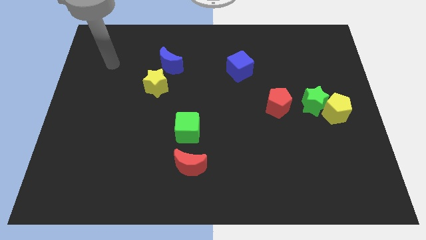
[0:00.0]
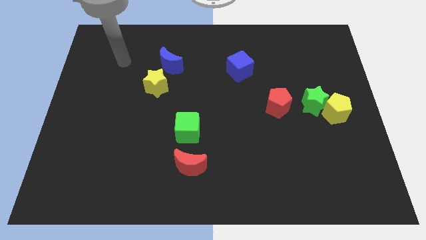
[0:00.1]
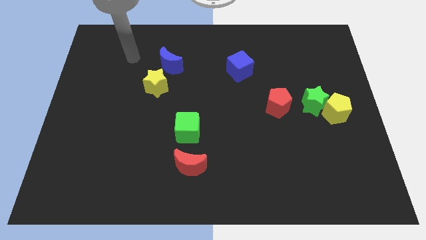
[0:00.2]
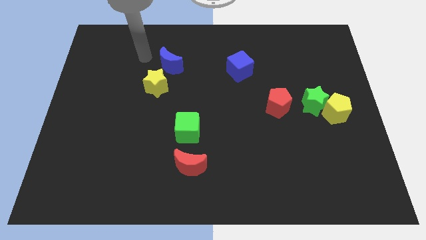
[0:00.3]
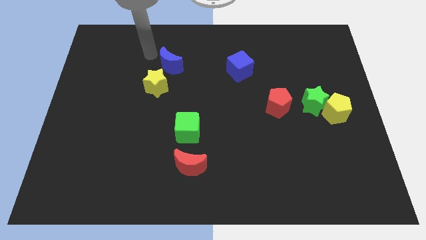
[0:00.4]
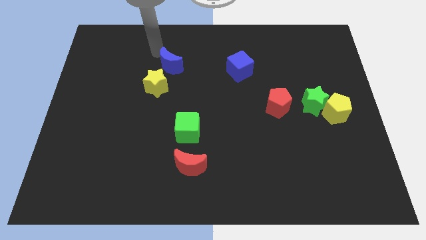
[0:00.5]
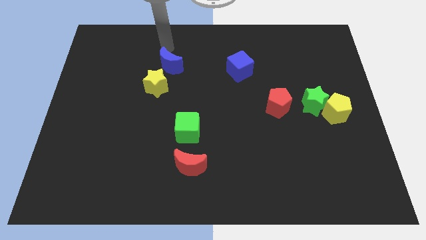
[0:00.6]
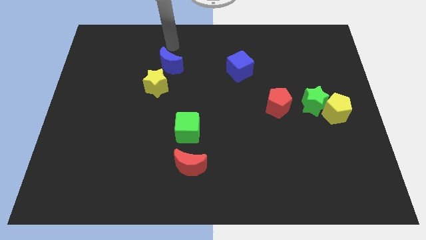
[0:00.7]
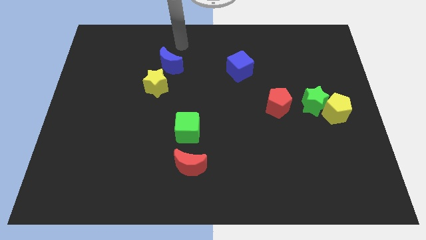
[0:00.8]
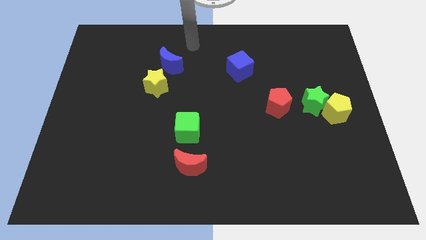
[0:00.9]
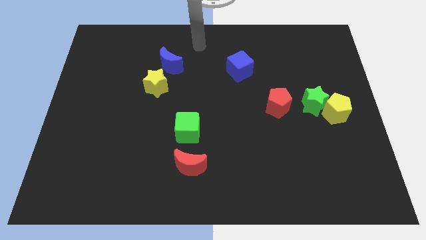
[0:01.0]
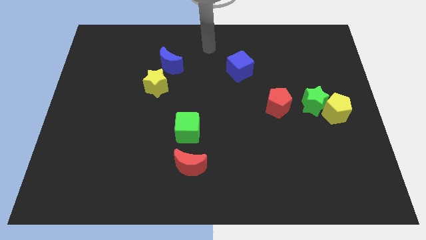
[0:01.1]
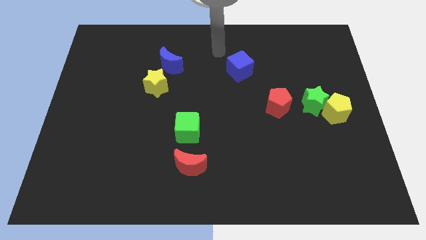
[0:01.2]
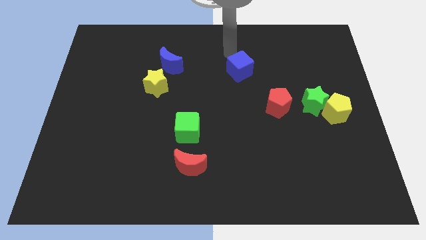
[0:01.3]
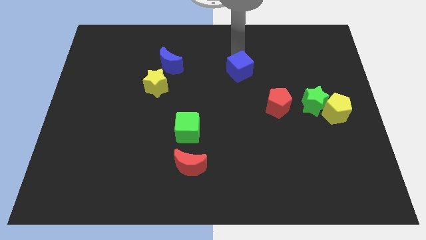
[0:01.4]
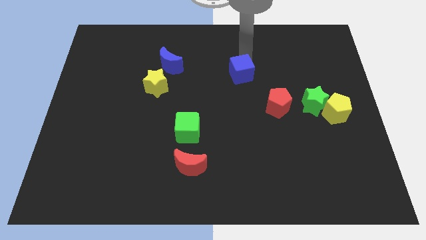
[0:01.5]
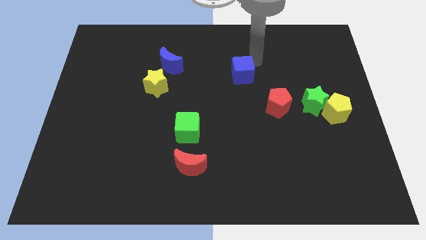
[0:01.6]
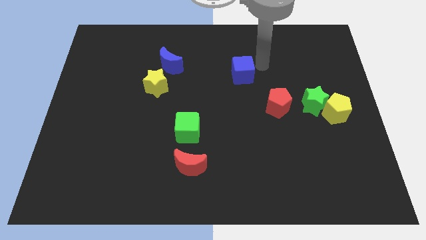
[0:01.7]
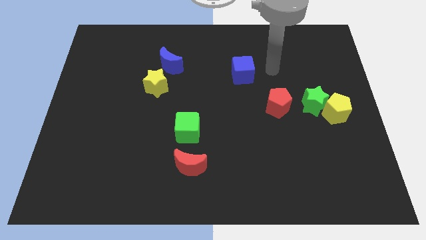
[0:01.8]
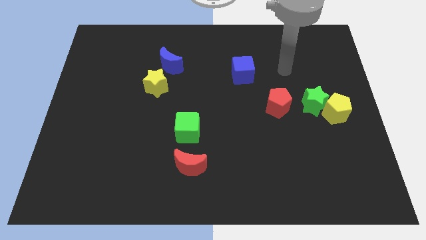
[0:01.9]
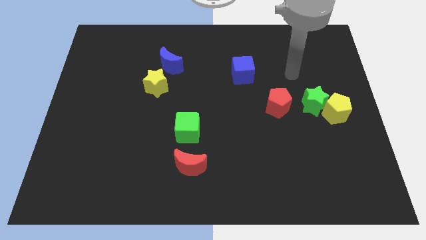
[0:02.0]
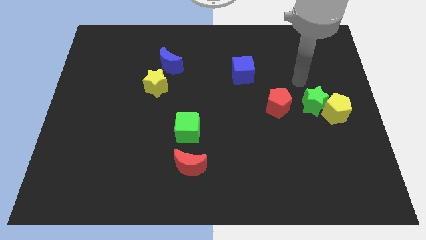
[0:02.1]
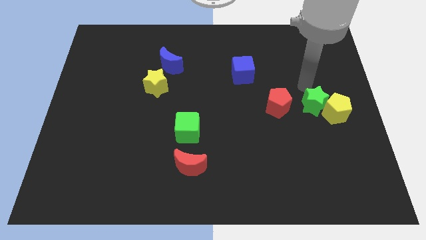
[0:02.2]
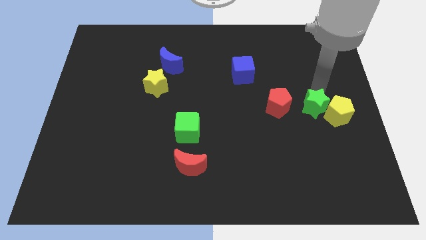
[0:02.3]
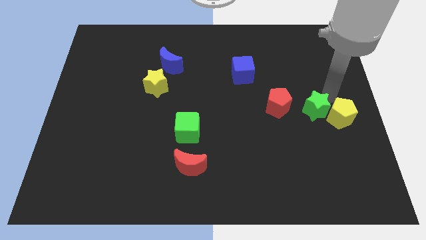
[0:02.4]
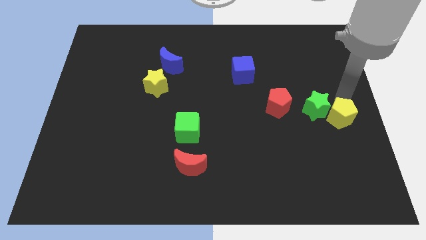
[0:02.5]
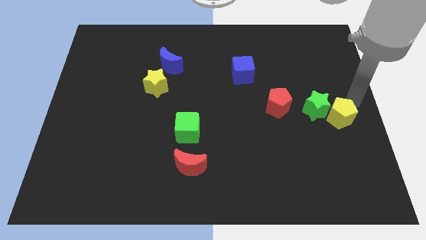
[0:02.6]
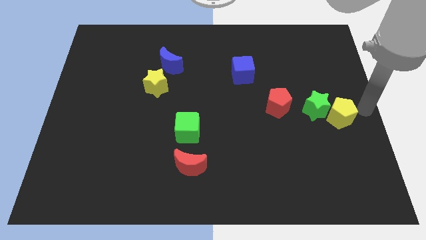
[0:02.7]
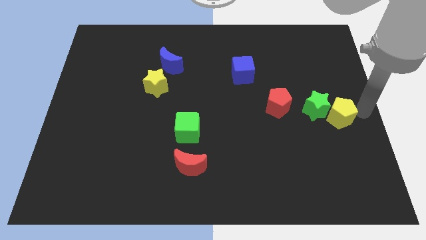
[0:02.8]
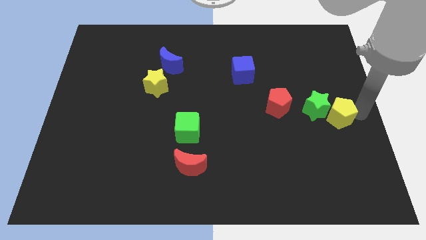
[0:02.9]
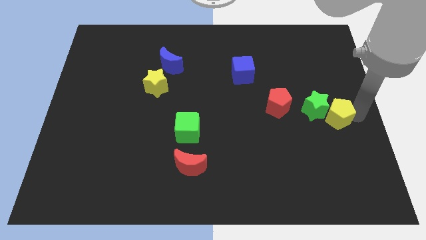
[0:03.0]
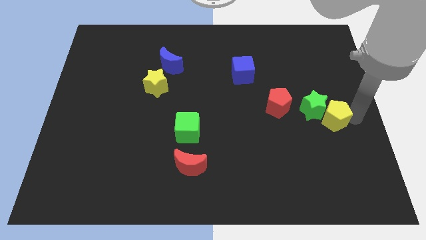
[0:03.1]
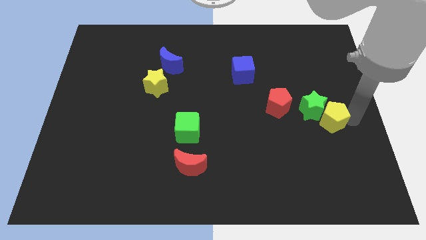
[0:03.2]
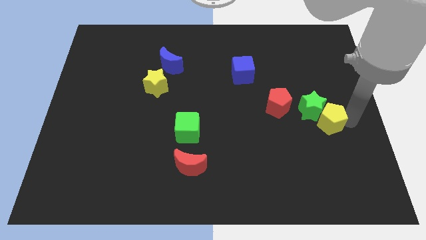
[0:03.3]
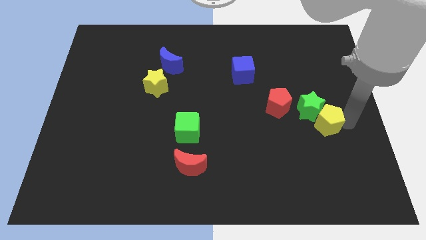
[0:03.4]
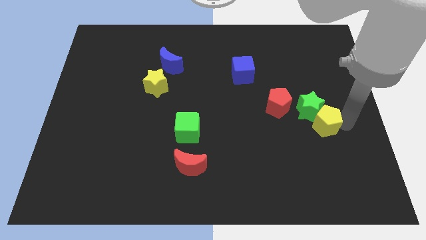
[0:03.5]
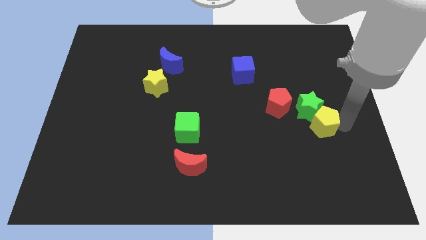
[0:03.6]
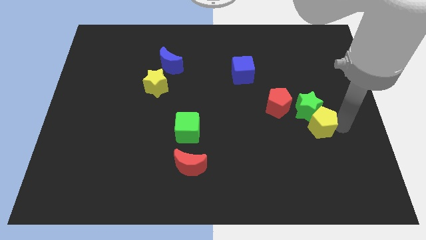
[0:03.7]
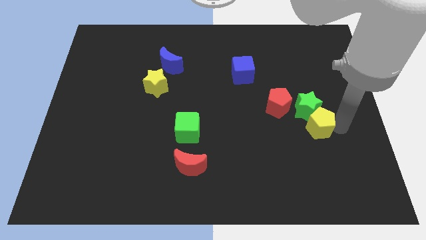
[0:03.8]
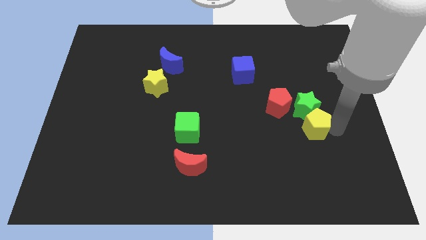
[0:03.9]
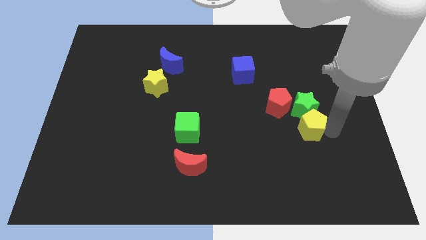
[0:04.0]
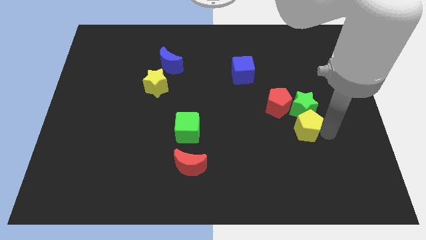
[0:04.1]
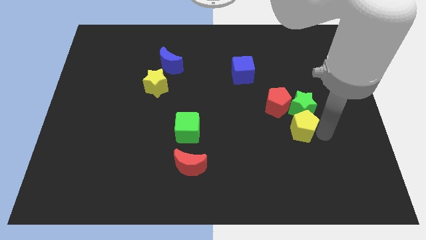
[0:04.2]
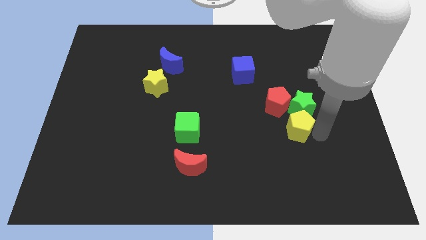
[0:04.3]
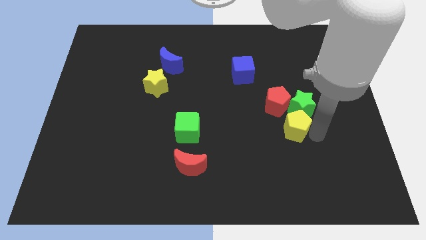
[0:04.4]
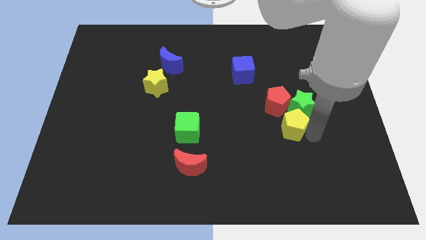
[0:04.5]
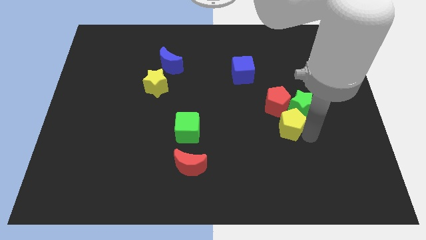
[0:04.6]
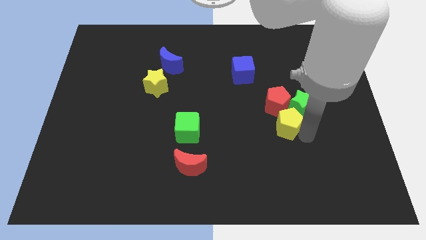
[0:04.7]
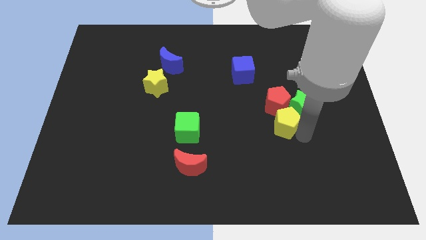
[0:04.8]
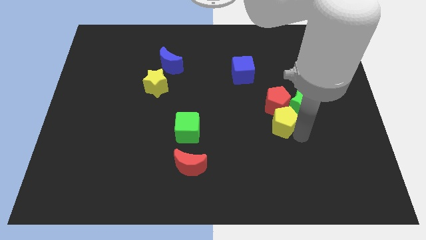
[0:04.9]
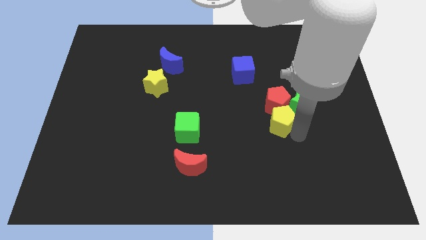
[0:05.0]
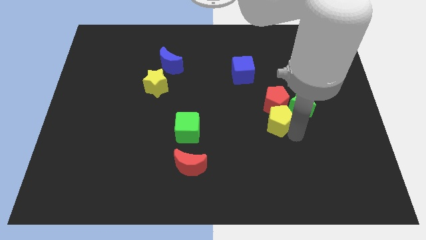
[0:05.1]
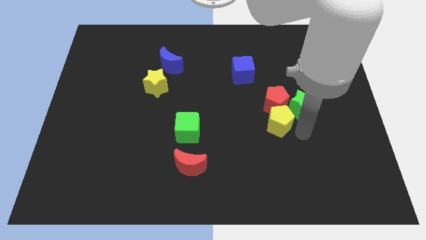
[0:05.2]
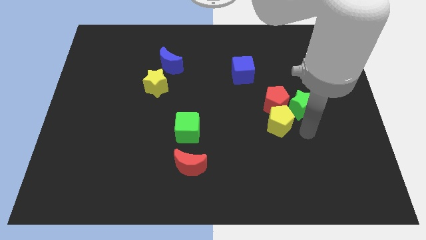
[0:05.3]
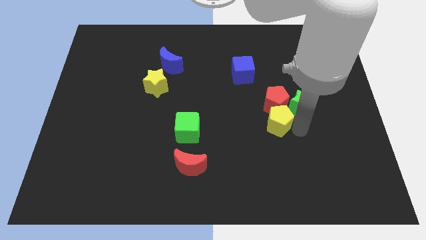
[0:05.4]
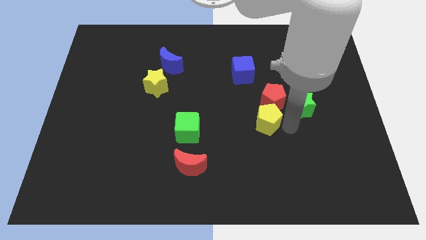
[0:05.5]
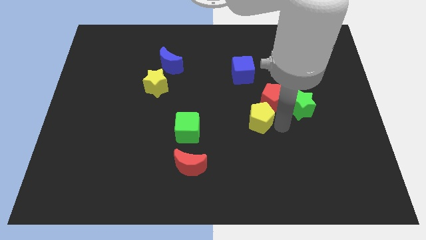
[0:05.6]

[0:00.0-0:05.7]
put the yellow pentagon to the middle of the board

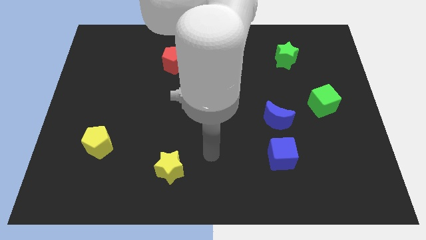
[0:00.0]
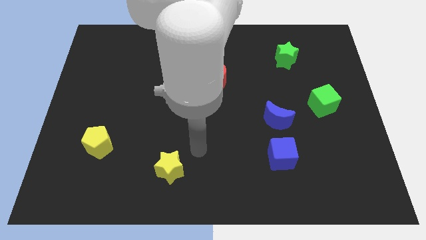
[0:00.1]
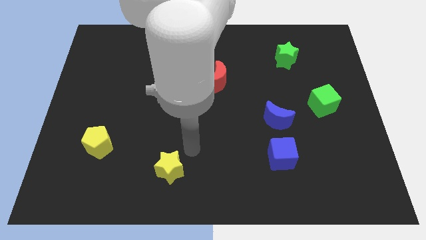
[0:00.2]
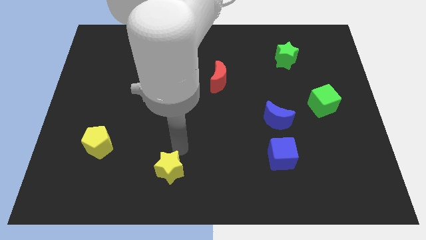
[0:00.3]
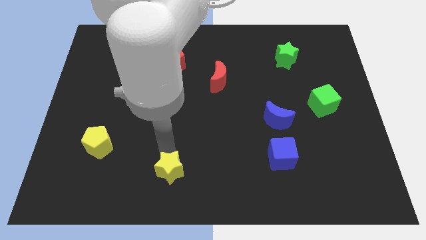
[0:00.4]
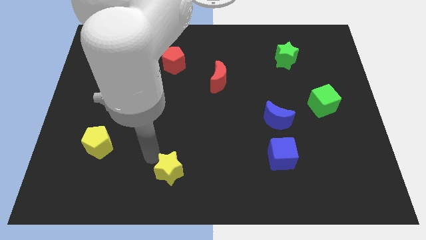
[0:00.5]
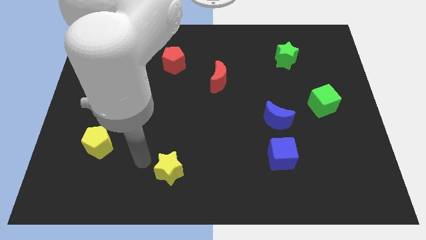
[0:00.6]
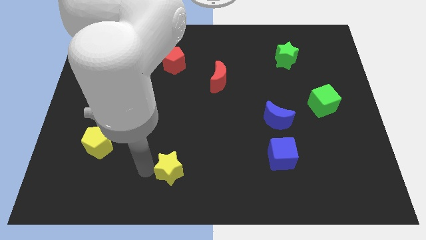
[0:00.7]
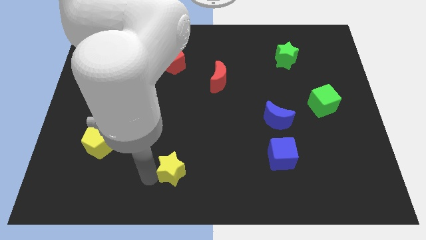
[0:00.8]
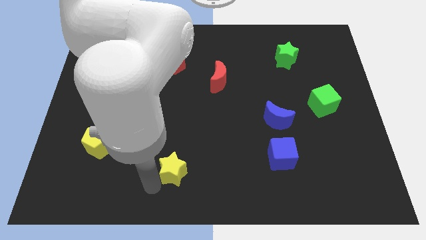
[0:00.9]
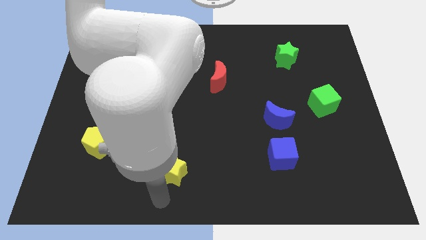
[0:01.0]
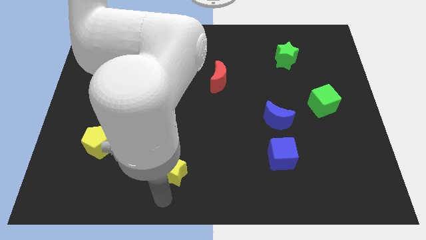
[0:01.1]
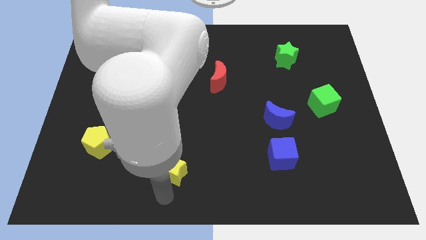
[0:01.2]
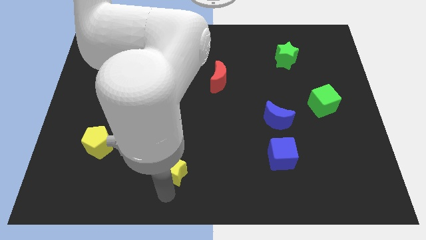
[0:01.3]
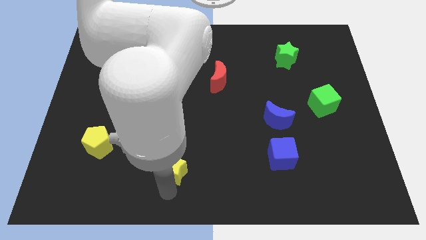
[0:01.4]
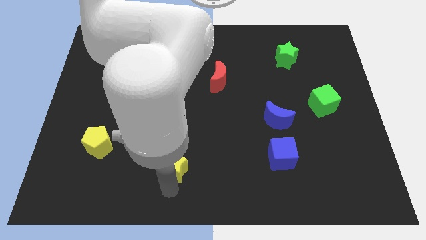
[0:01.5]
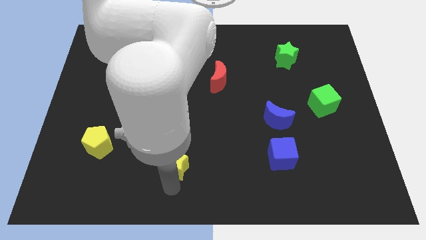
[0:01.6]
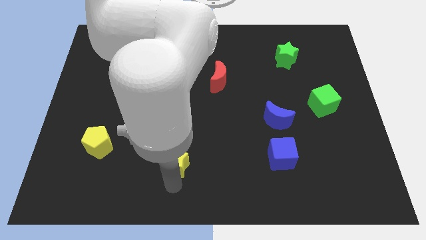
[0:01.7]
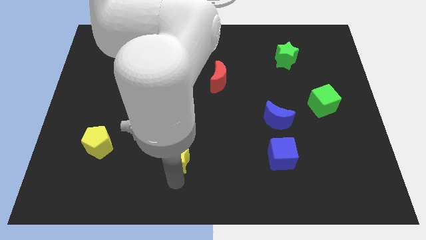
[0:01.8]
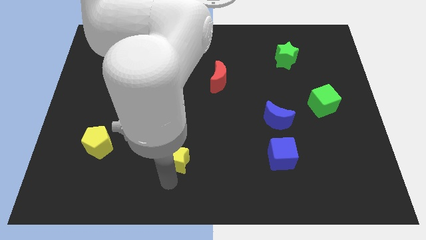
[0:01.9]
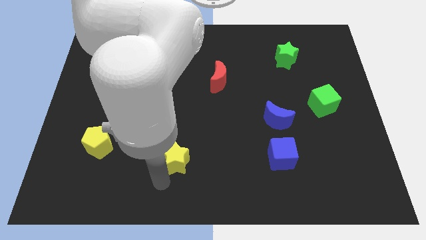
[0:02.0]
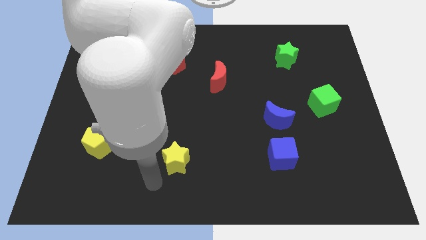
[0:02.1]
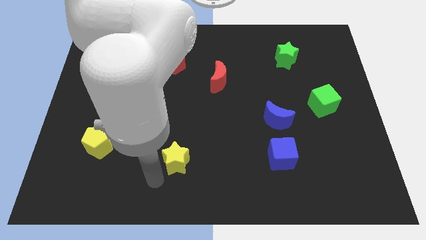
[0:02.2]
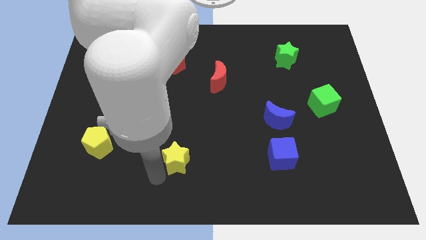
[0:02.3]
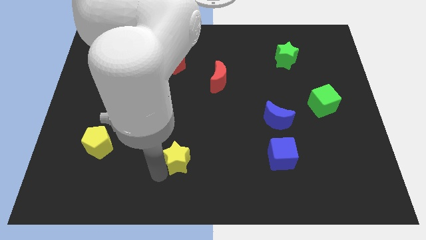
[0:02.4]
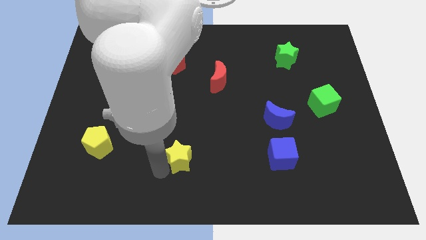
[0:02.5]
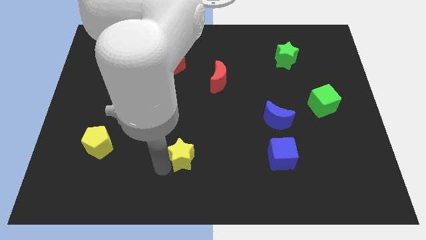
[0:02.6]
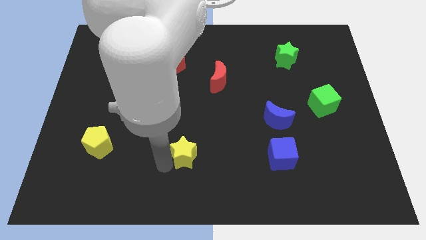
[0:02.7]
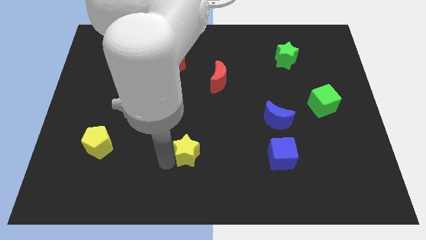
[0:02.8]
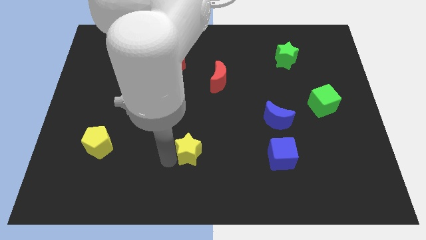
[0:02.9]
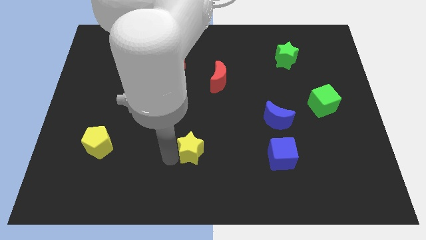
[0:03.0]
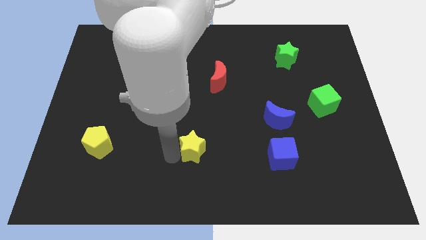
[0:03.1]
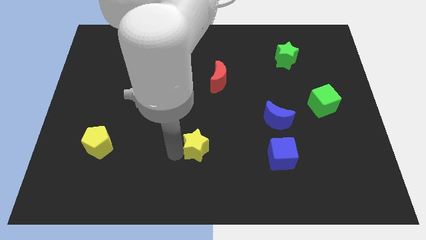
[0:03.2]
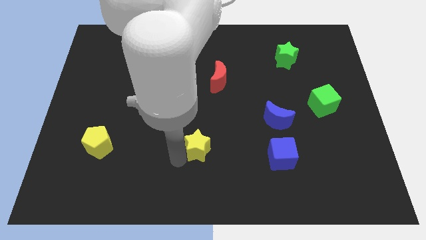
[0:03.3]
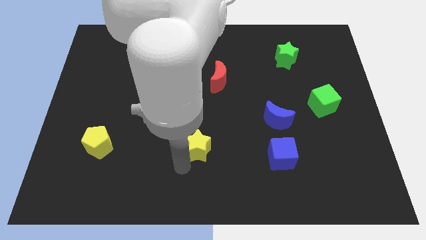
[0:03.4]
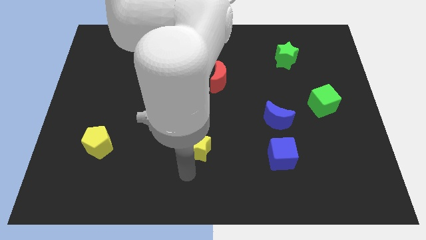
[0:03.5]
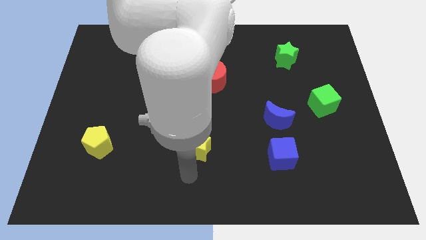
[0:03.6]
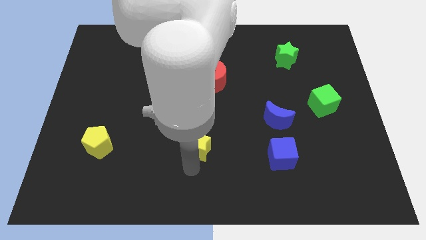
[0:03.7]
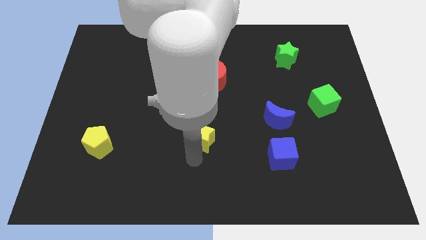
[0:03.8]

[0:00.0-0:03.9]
put the yellow star to the center
